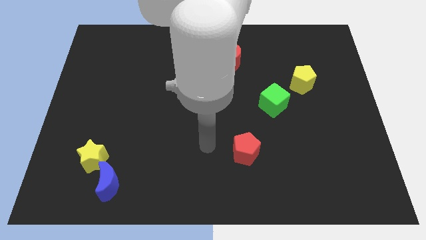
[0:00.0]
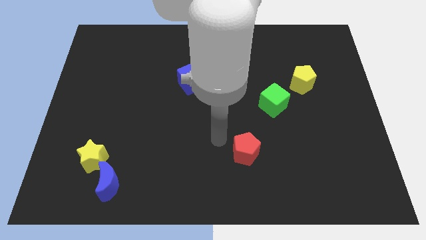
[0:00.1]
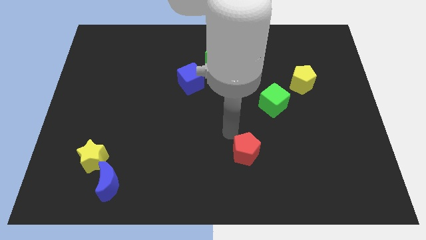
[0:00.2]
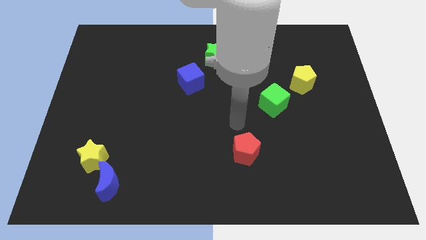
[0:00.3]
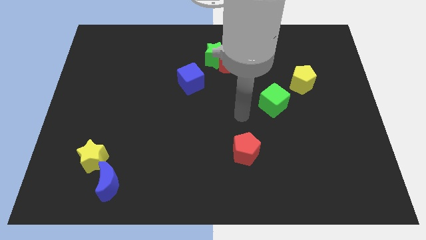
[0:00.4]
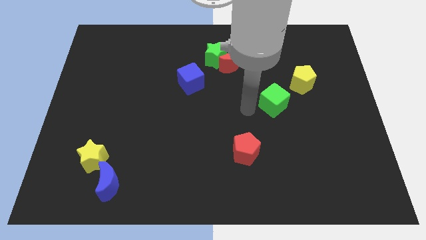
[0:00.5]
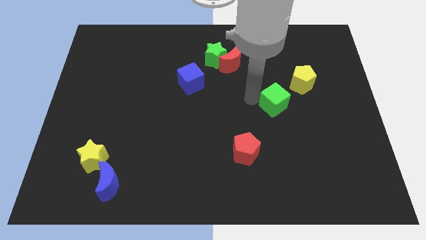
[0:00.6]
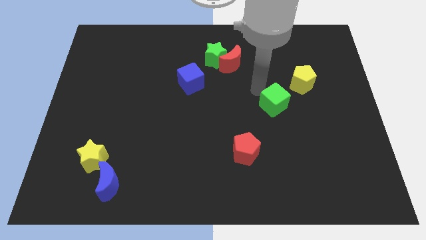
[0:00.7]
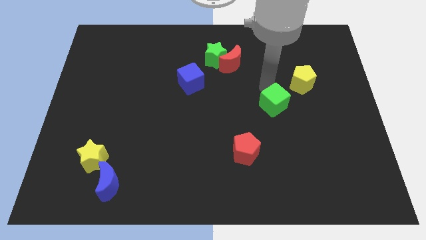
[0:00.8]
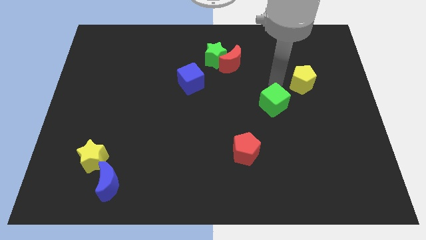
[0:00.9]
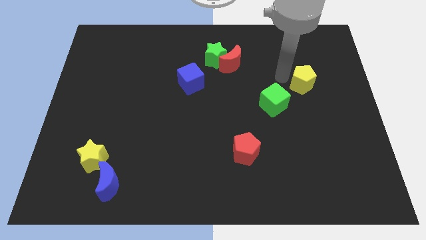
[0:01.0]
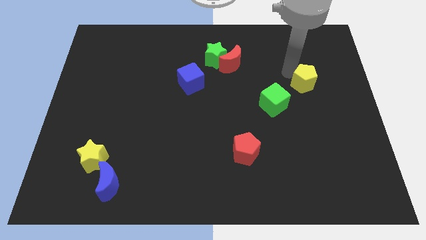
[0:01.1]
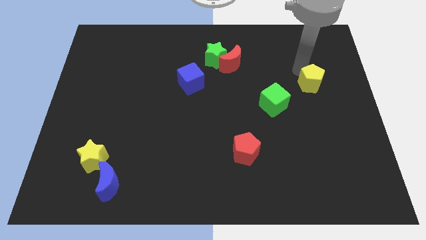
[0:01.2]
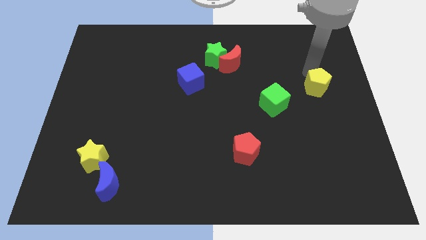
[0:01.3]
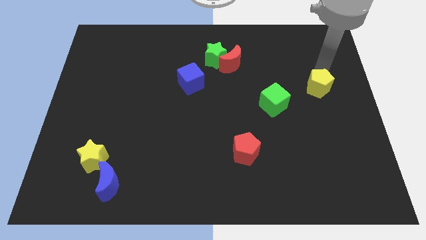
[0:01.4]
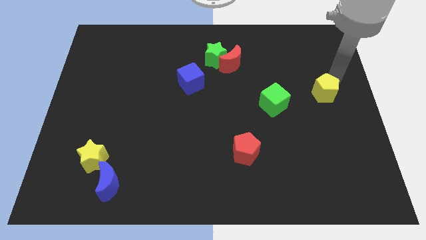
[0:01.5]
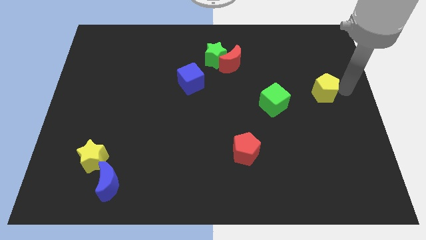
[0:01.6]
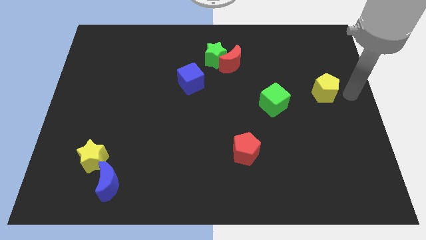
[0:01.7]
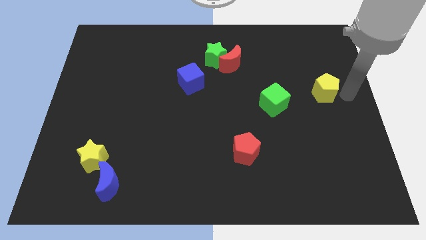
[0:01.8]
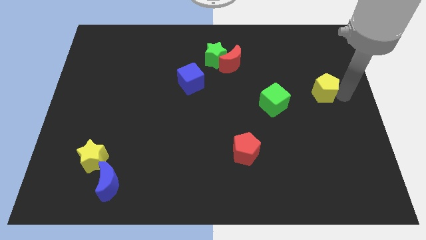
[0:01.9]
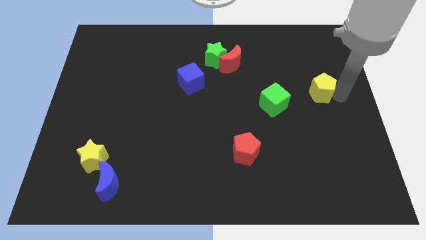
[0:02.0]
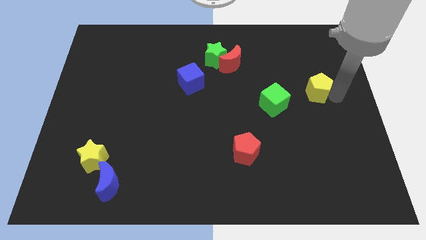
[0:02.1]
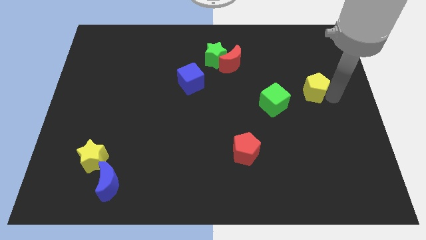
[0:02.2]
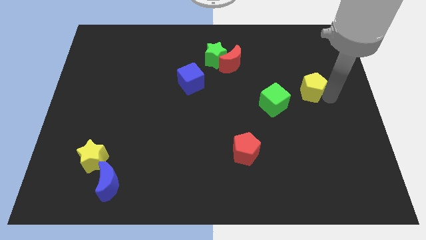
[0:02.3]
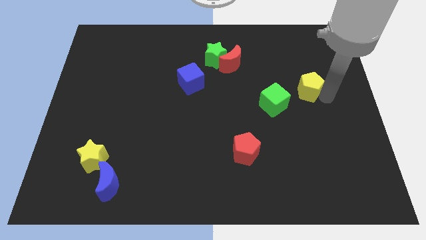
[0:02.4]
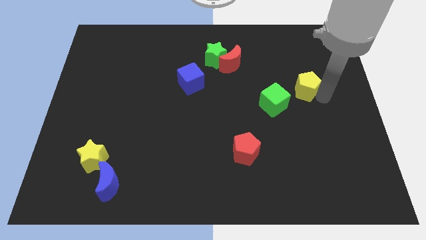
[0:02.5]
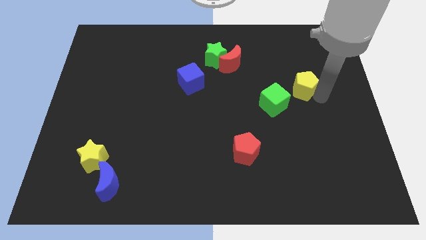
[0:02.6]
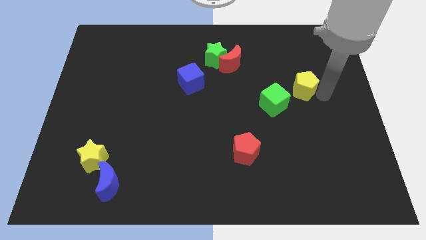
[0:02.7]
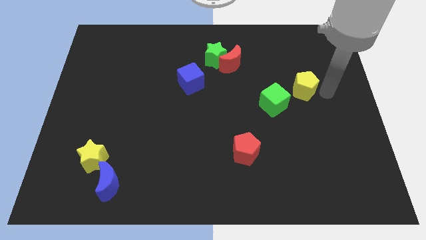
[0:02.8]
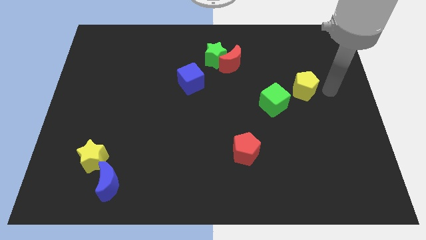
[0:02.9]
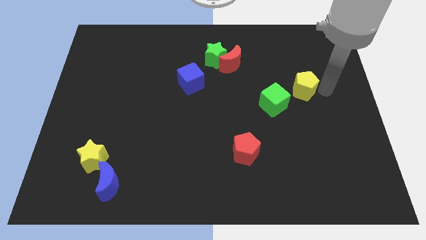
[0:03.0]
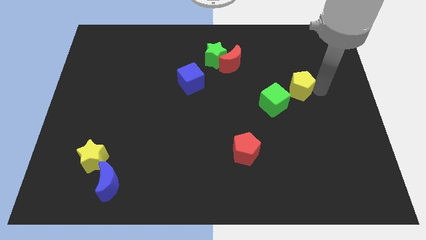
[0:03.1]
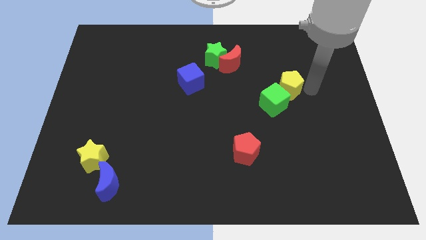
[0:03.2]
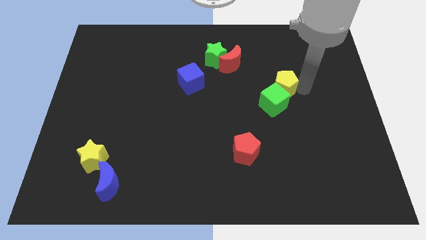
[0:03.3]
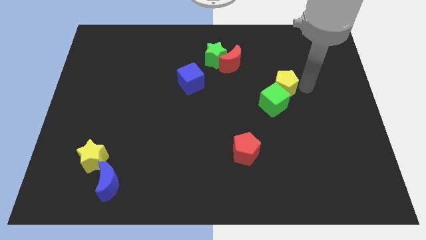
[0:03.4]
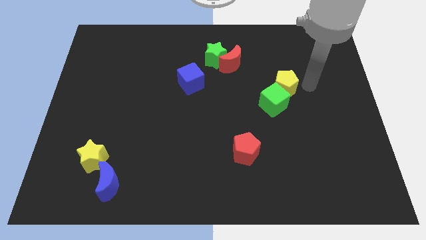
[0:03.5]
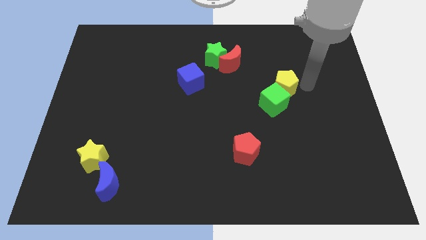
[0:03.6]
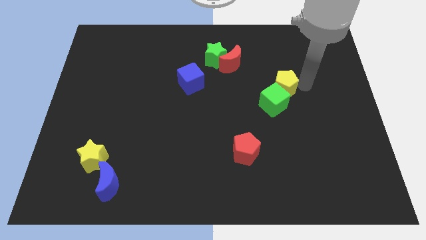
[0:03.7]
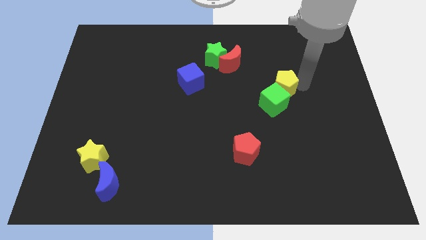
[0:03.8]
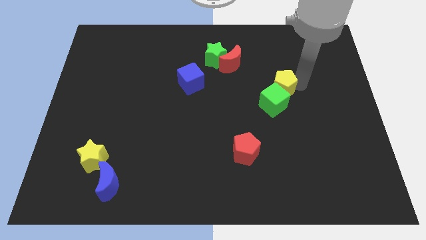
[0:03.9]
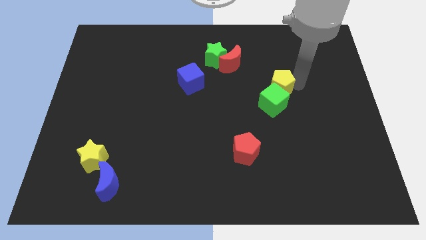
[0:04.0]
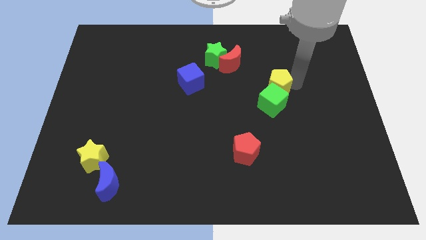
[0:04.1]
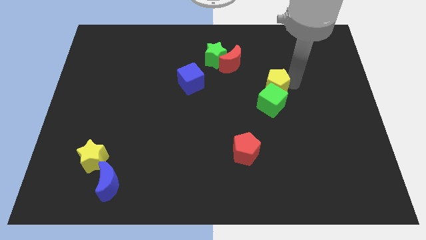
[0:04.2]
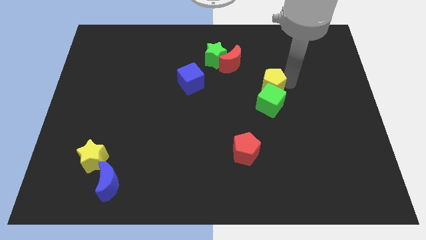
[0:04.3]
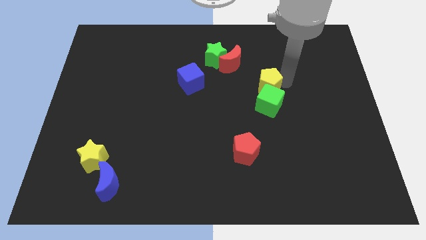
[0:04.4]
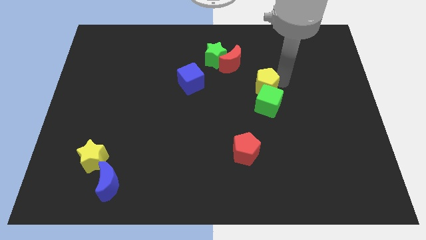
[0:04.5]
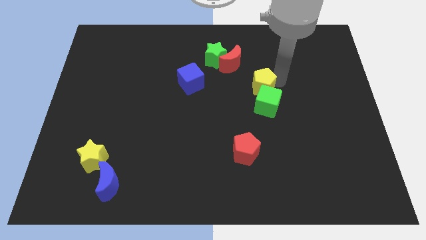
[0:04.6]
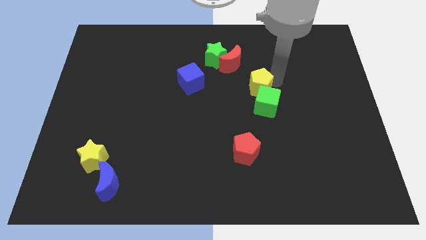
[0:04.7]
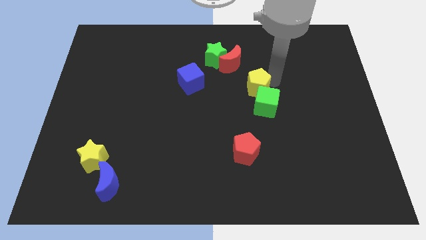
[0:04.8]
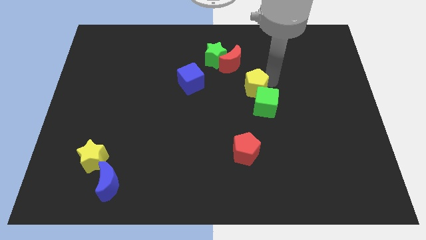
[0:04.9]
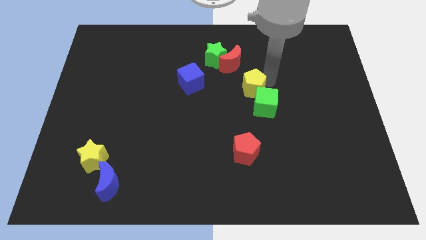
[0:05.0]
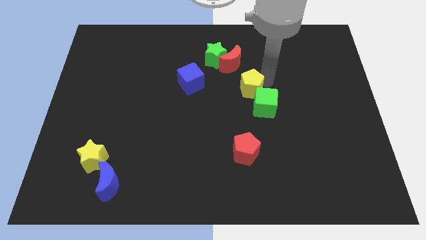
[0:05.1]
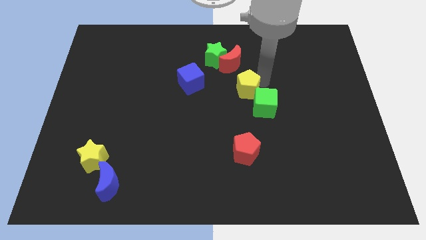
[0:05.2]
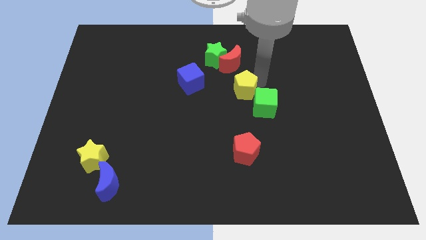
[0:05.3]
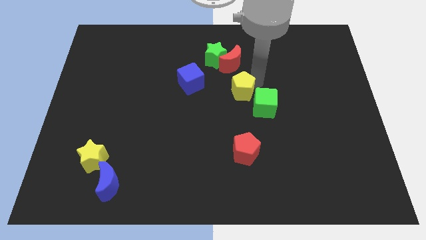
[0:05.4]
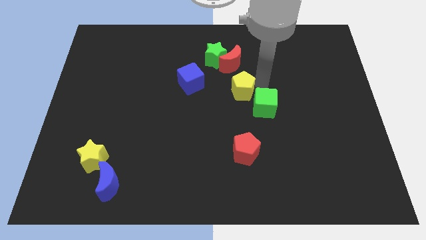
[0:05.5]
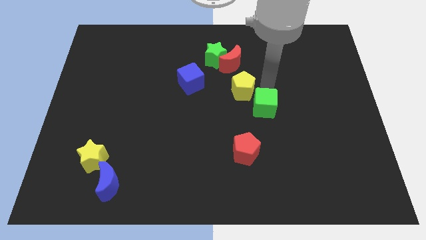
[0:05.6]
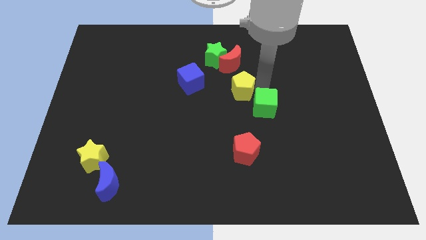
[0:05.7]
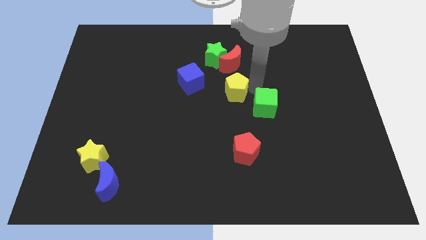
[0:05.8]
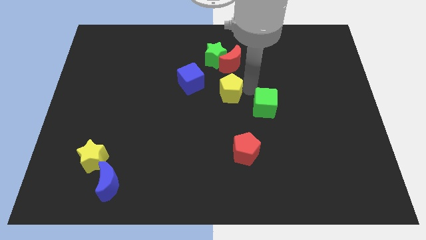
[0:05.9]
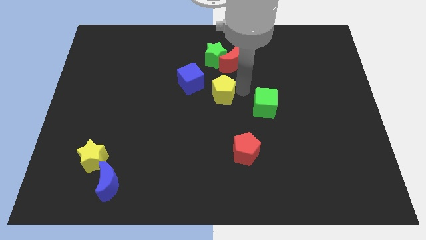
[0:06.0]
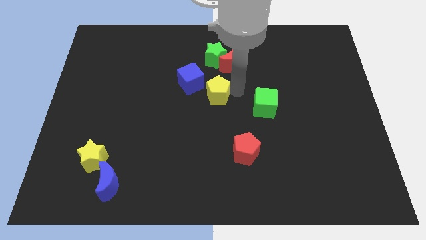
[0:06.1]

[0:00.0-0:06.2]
push the yellow pentagon to the left

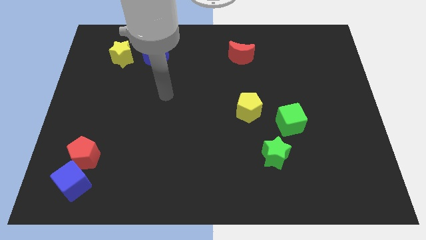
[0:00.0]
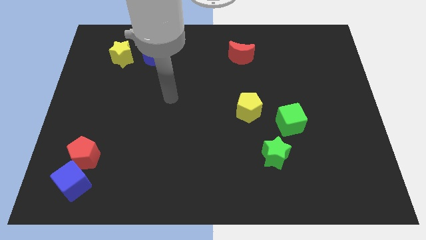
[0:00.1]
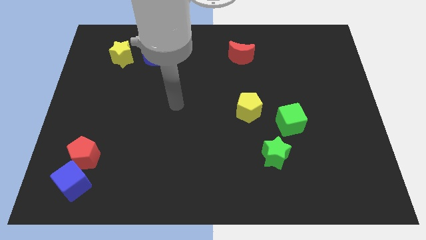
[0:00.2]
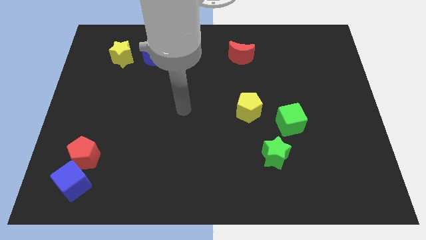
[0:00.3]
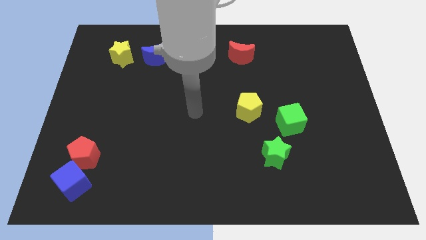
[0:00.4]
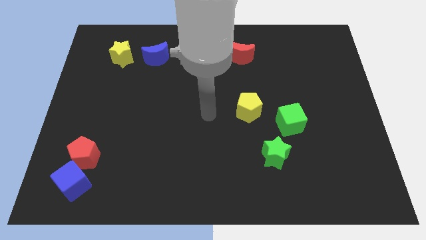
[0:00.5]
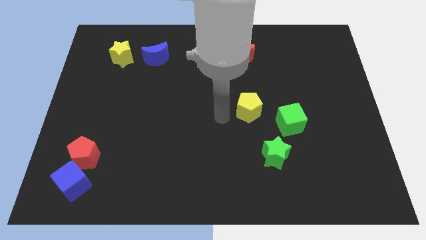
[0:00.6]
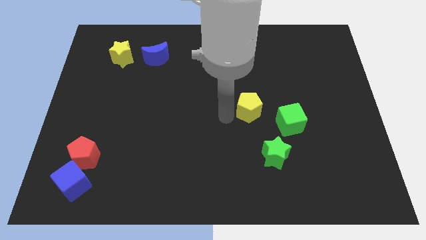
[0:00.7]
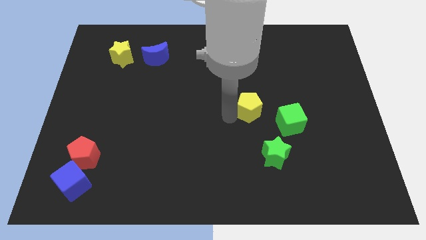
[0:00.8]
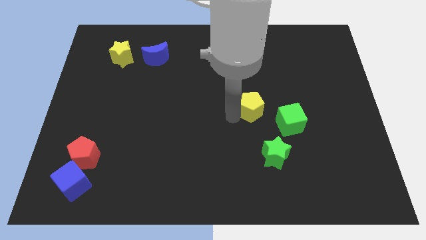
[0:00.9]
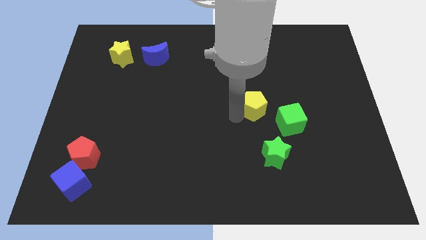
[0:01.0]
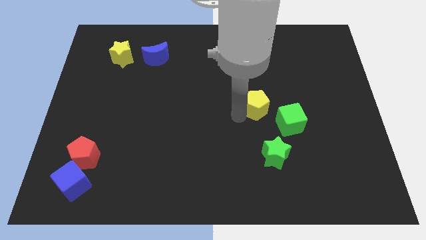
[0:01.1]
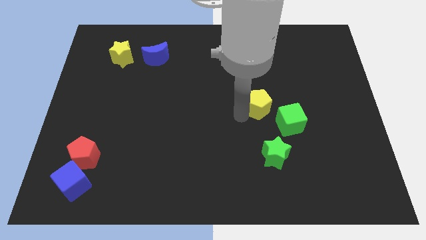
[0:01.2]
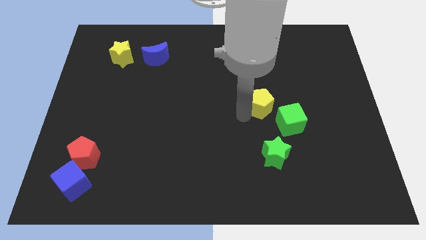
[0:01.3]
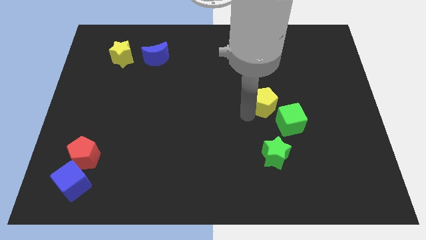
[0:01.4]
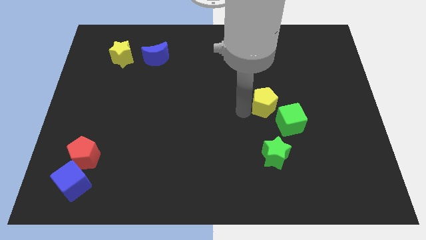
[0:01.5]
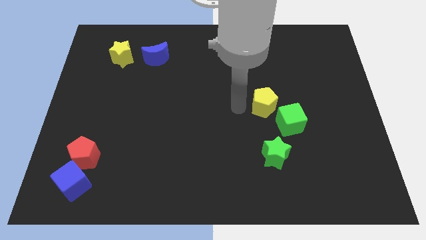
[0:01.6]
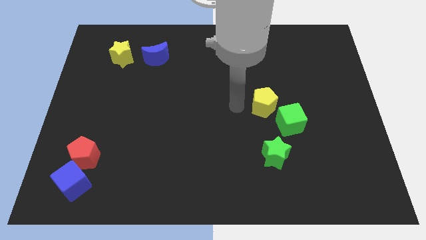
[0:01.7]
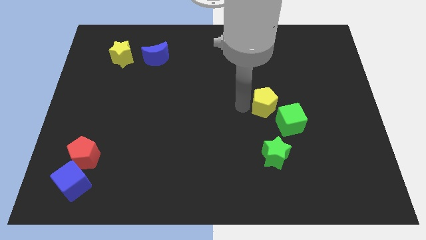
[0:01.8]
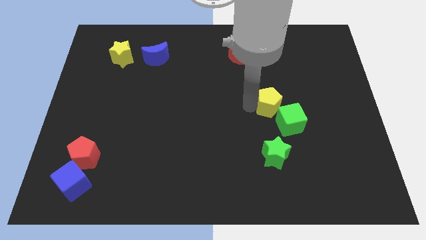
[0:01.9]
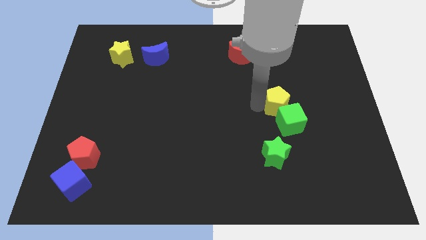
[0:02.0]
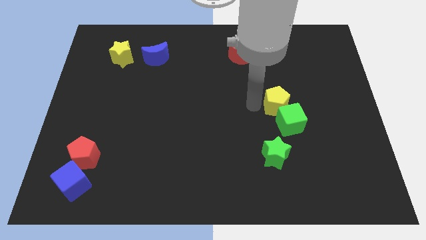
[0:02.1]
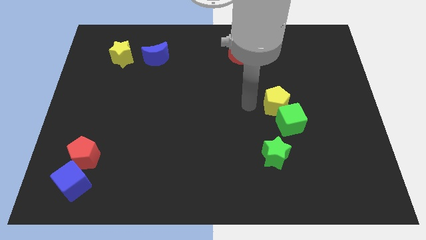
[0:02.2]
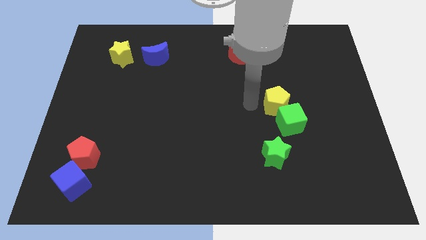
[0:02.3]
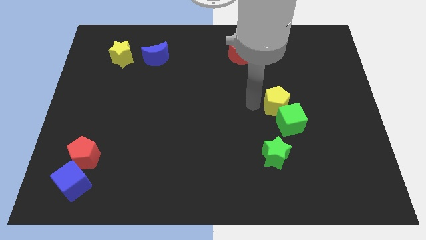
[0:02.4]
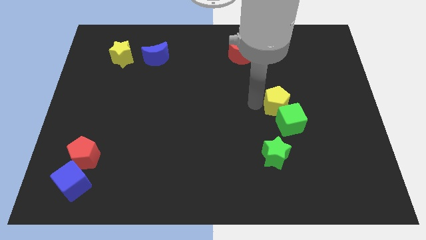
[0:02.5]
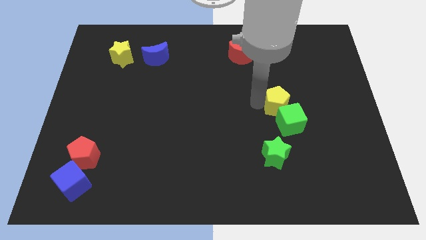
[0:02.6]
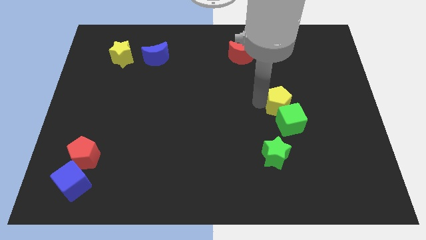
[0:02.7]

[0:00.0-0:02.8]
move the yellow pentagon right a little
